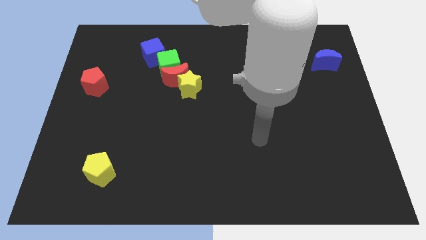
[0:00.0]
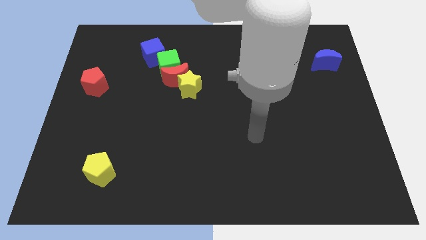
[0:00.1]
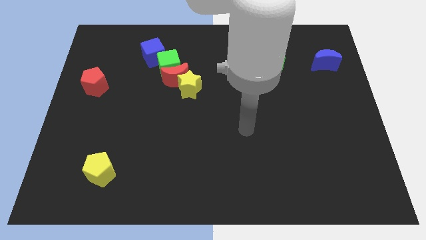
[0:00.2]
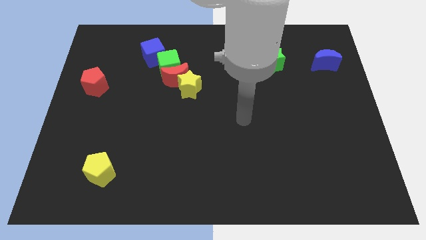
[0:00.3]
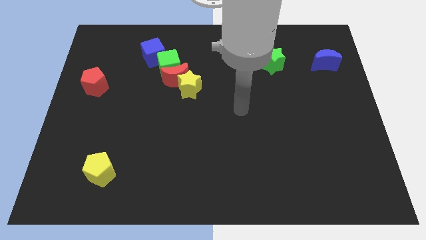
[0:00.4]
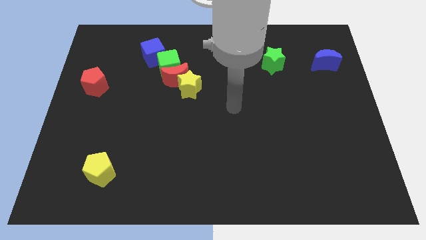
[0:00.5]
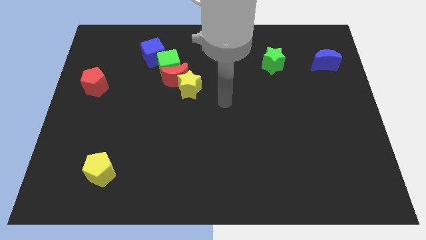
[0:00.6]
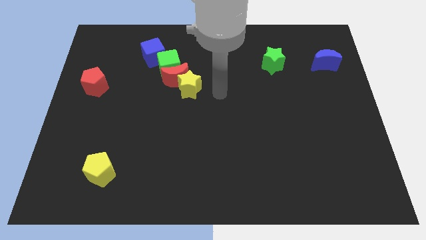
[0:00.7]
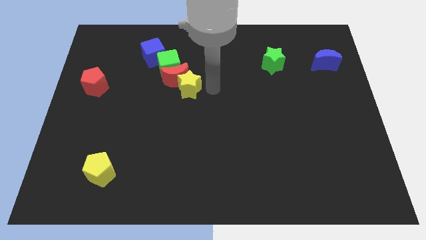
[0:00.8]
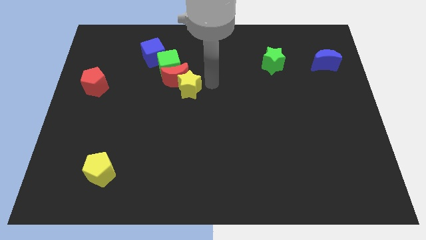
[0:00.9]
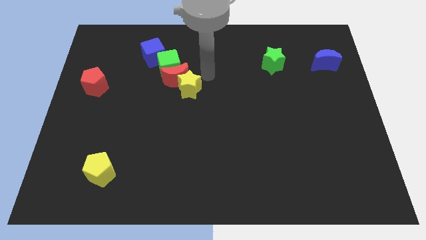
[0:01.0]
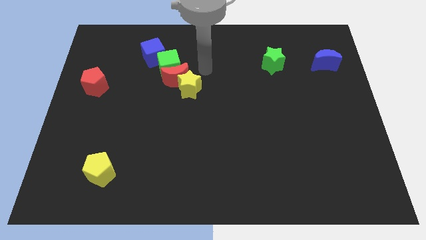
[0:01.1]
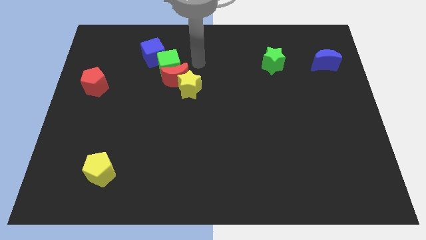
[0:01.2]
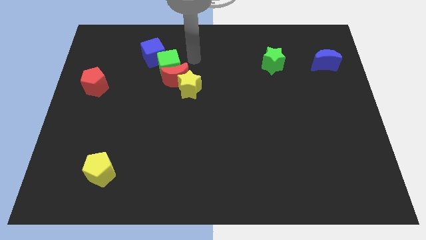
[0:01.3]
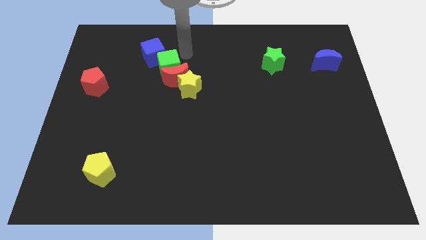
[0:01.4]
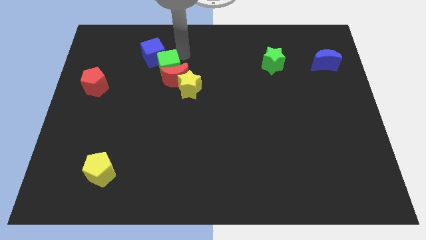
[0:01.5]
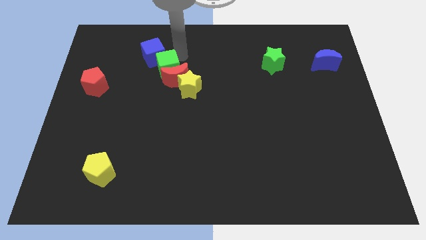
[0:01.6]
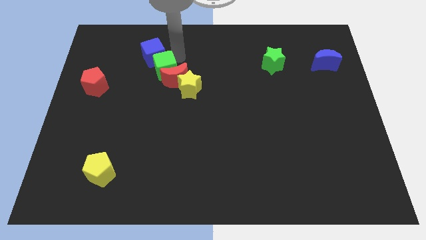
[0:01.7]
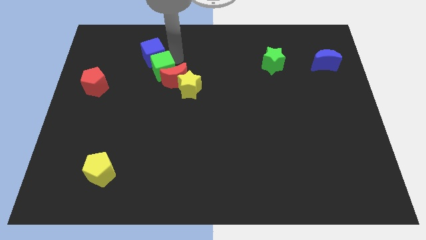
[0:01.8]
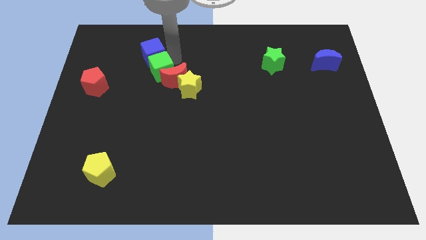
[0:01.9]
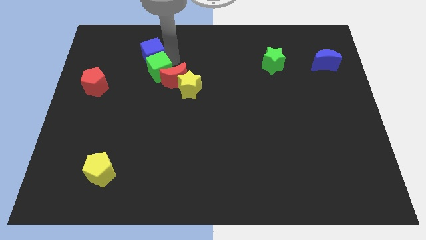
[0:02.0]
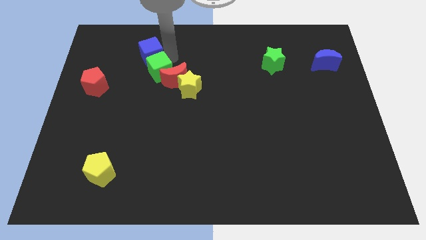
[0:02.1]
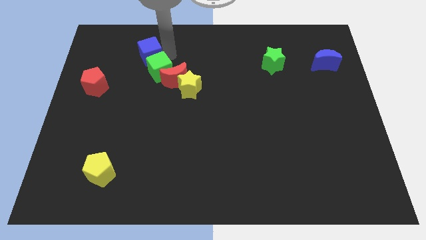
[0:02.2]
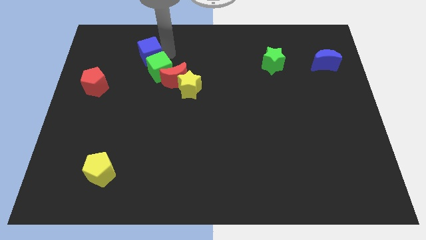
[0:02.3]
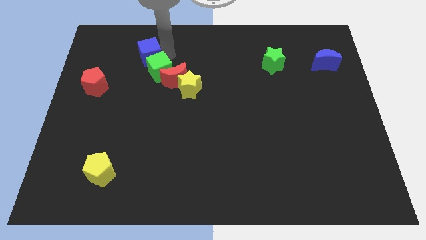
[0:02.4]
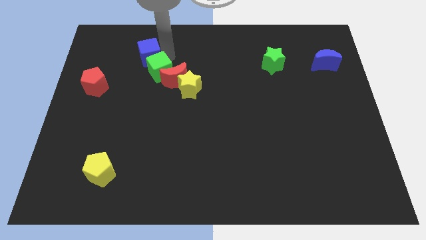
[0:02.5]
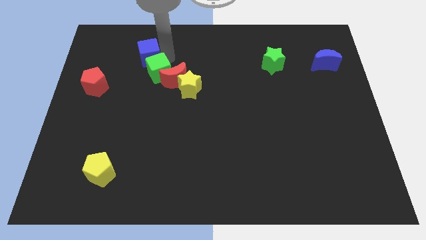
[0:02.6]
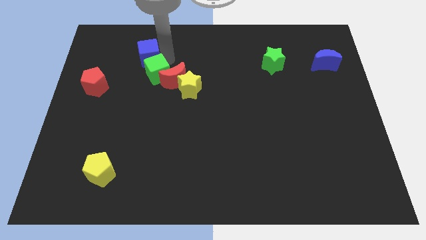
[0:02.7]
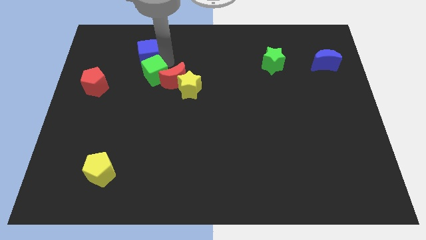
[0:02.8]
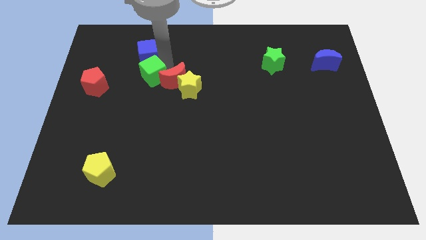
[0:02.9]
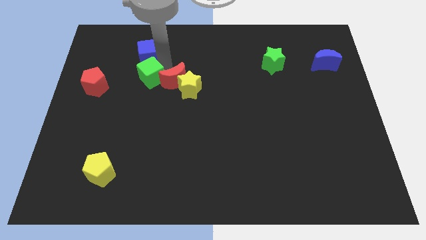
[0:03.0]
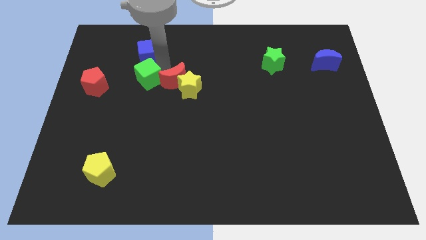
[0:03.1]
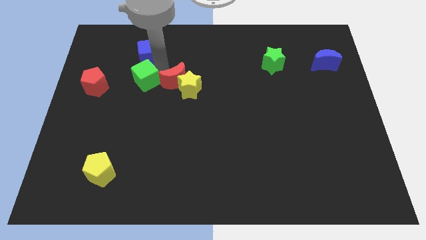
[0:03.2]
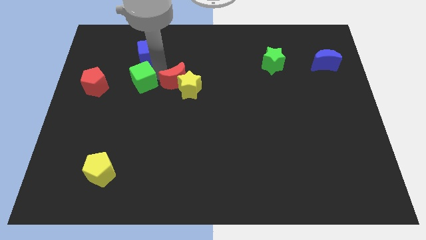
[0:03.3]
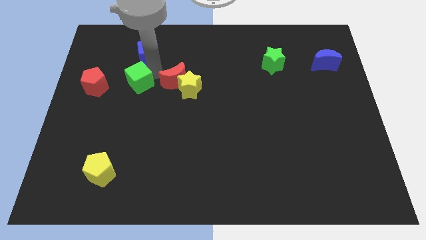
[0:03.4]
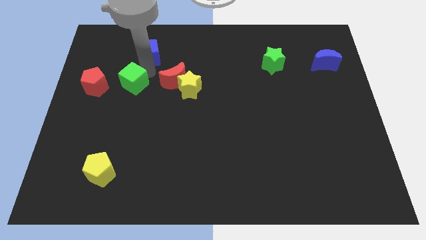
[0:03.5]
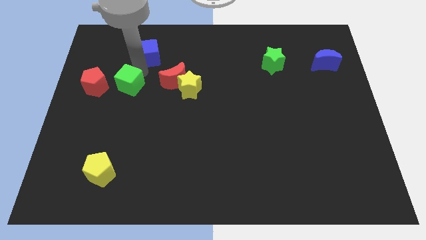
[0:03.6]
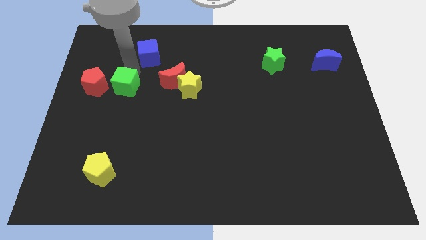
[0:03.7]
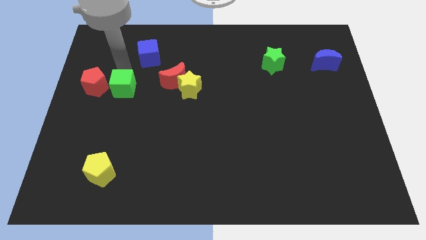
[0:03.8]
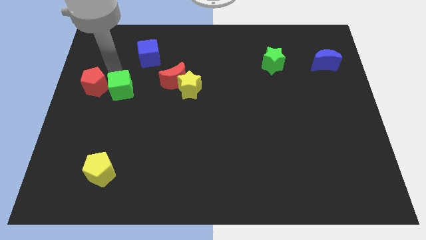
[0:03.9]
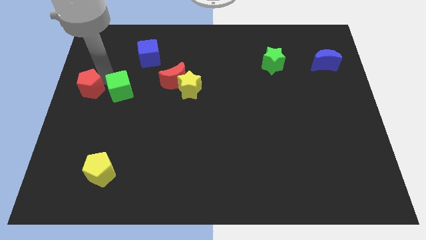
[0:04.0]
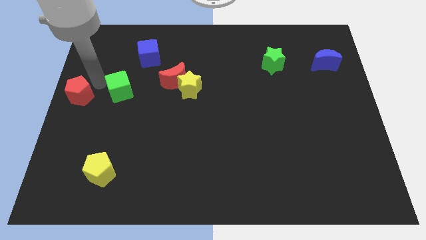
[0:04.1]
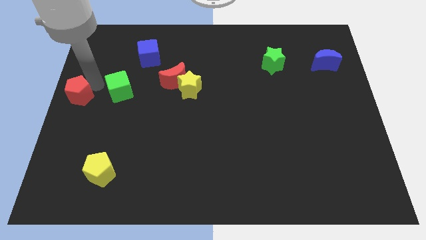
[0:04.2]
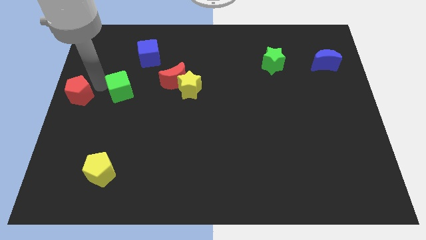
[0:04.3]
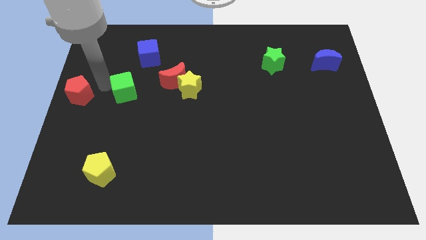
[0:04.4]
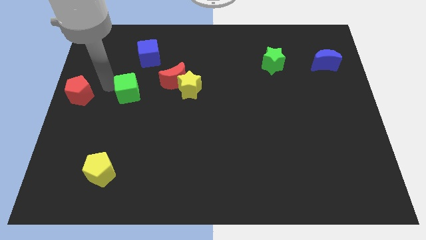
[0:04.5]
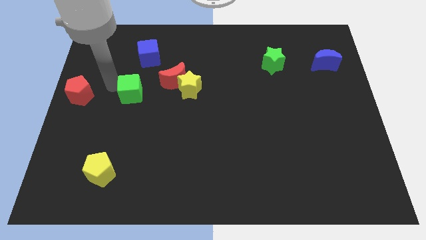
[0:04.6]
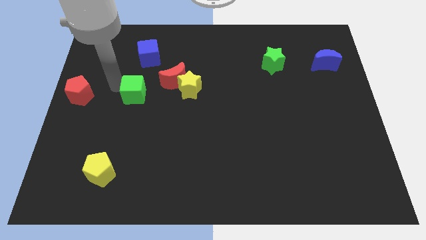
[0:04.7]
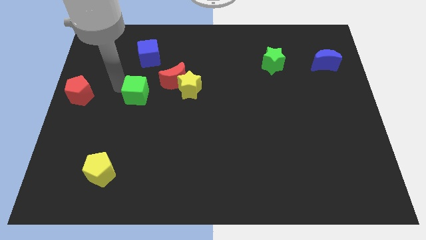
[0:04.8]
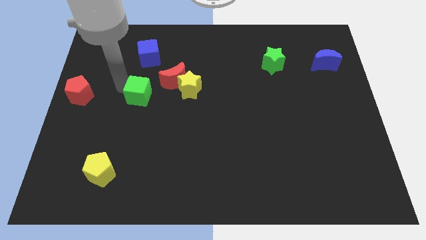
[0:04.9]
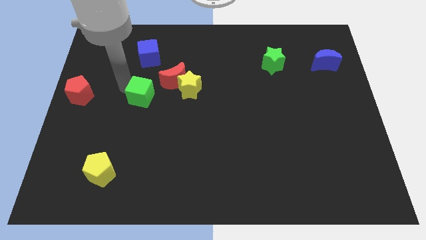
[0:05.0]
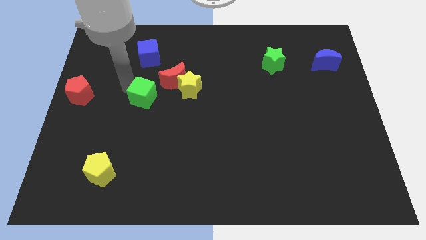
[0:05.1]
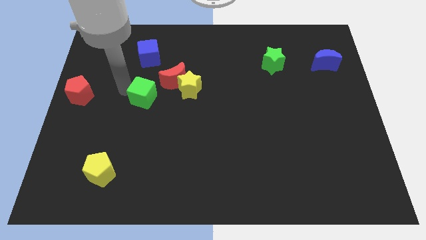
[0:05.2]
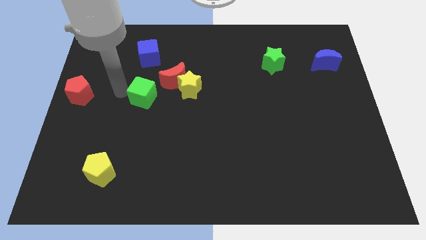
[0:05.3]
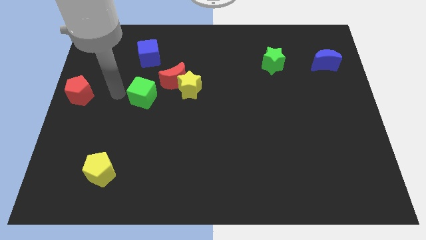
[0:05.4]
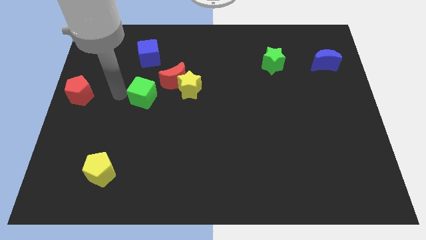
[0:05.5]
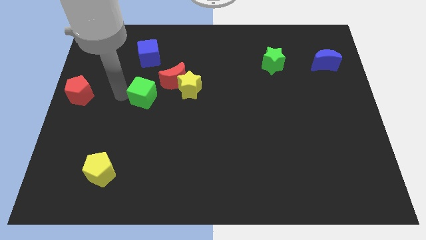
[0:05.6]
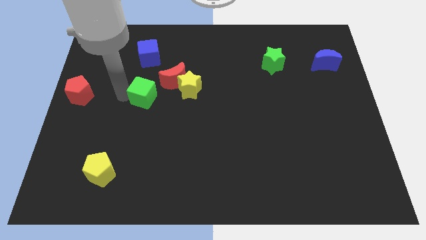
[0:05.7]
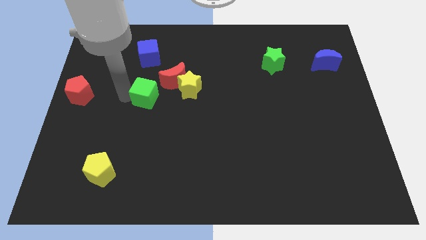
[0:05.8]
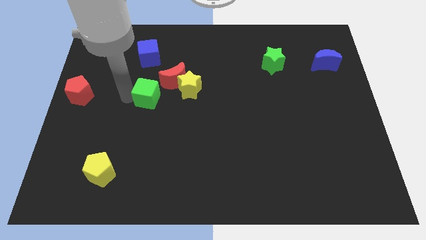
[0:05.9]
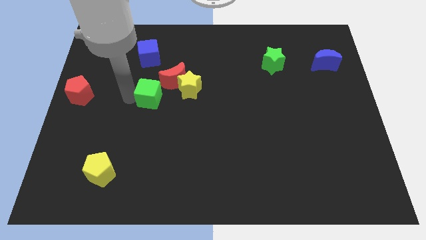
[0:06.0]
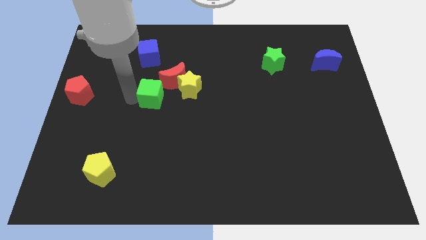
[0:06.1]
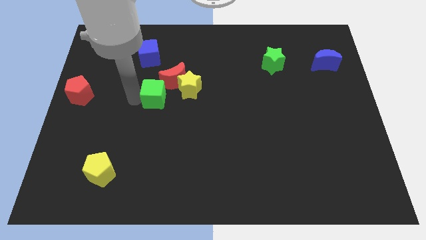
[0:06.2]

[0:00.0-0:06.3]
put the green cube below the red moon

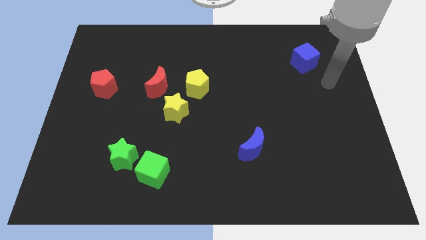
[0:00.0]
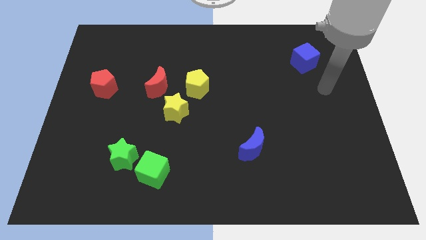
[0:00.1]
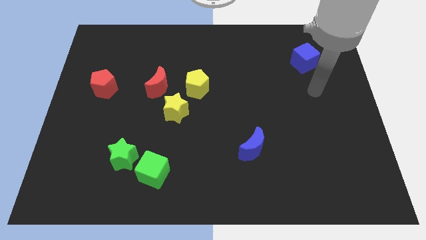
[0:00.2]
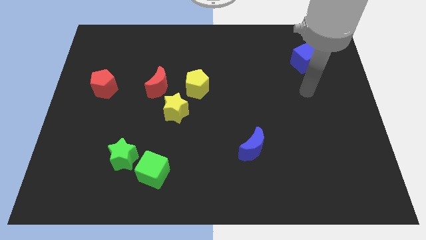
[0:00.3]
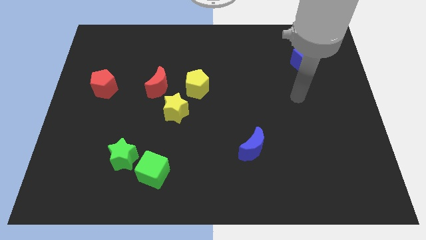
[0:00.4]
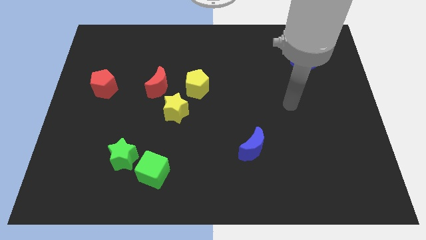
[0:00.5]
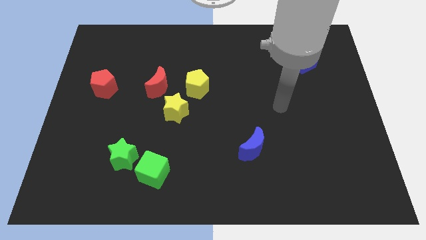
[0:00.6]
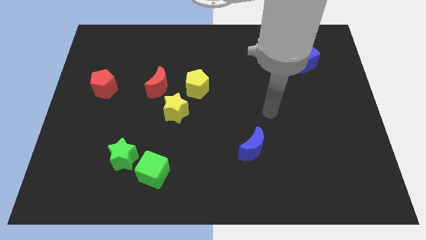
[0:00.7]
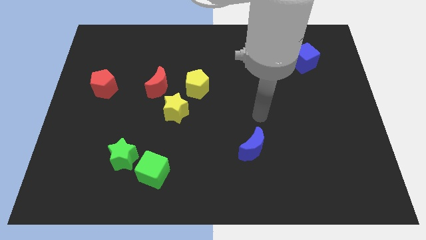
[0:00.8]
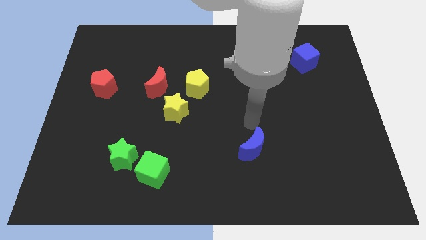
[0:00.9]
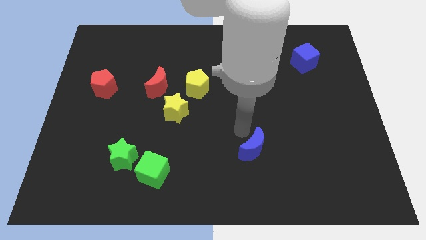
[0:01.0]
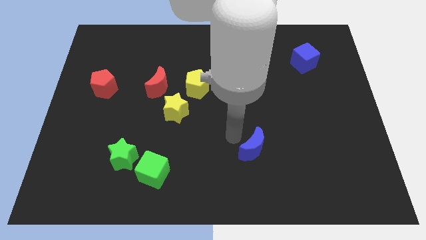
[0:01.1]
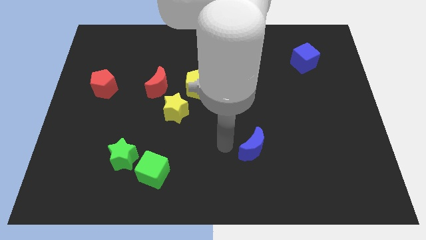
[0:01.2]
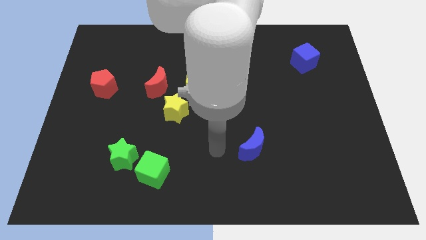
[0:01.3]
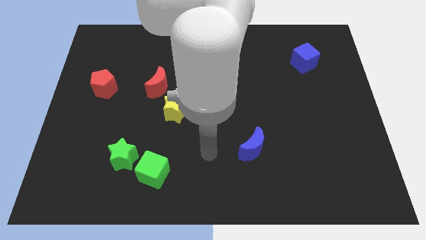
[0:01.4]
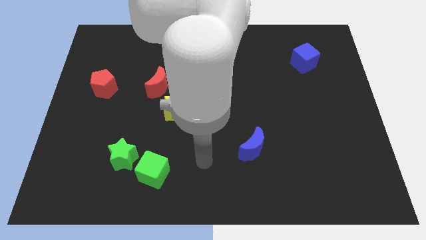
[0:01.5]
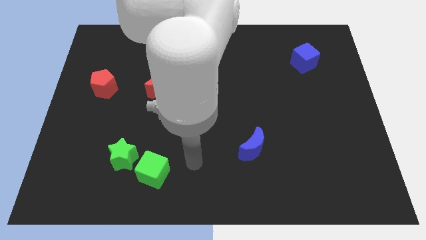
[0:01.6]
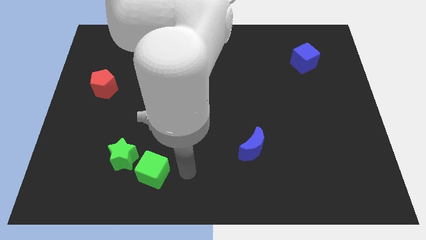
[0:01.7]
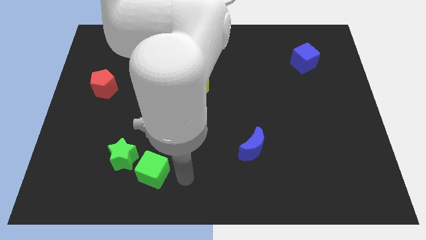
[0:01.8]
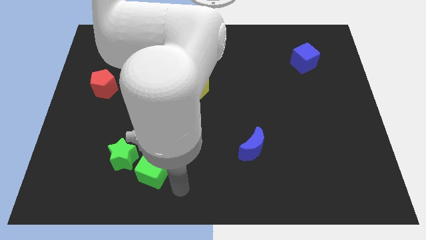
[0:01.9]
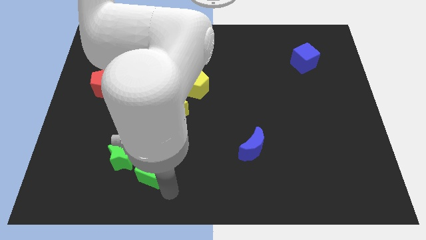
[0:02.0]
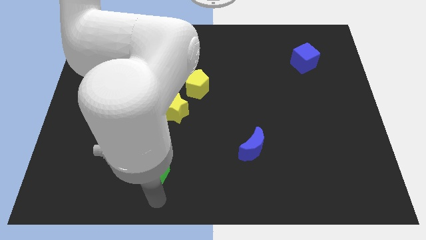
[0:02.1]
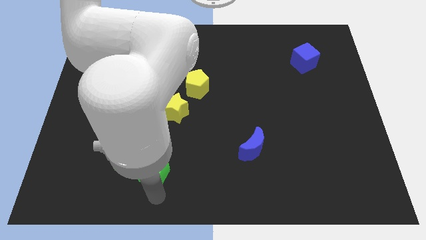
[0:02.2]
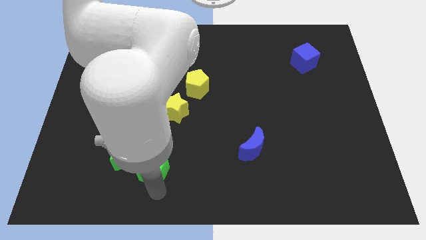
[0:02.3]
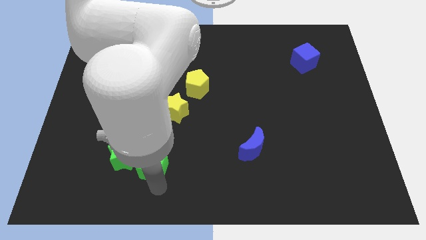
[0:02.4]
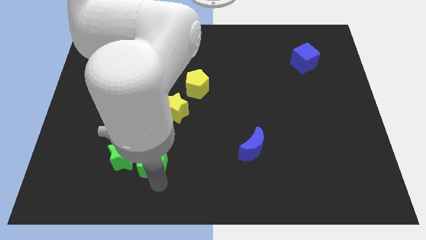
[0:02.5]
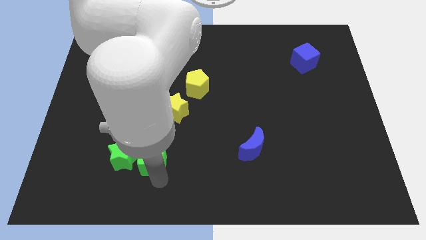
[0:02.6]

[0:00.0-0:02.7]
slide the green cube diagonally up and to the right of the green star
